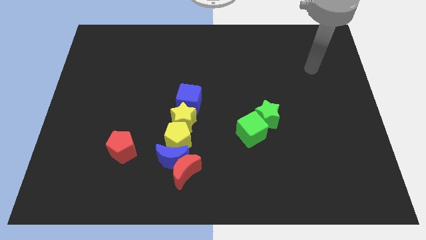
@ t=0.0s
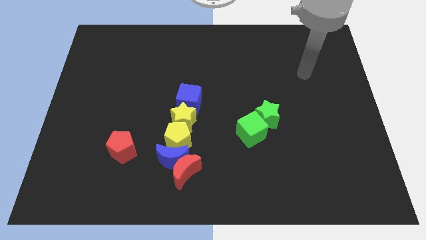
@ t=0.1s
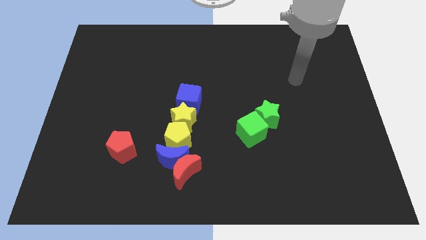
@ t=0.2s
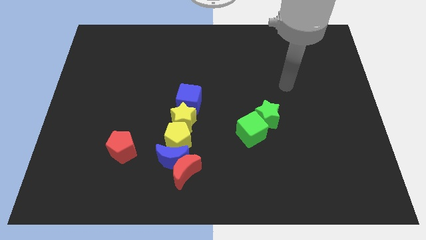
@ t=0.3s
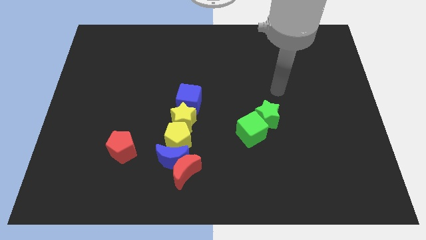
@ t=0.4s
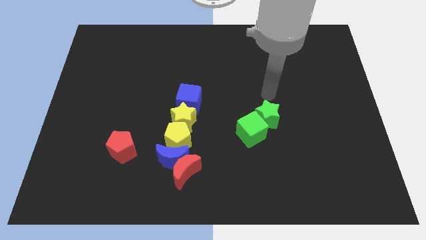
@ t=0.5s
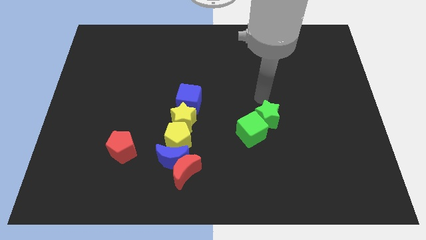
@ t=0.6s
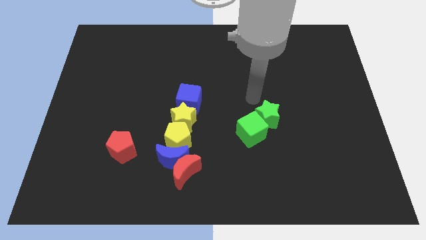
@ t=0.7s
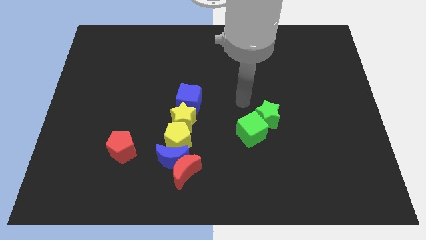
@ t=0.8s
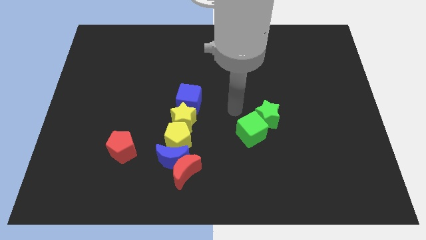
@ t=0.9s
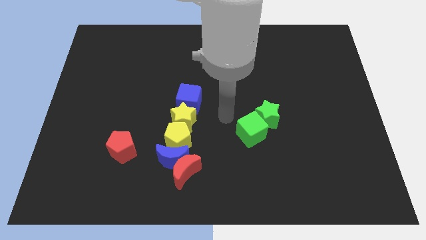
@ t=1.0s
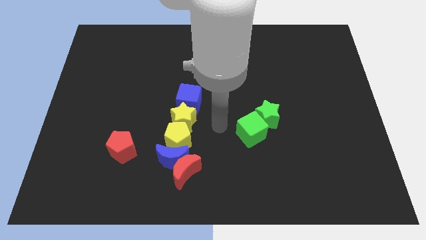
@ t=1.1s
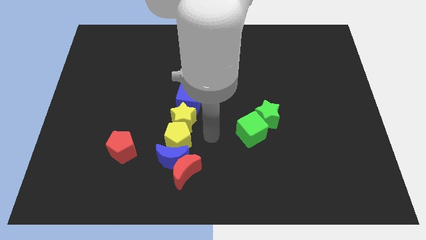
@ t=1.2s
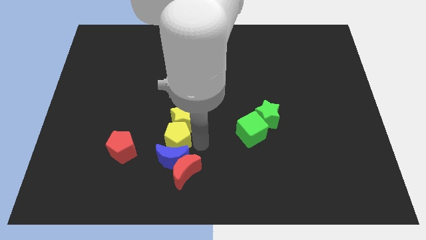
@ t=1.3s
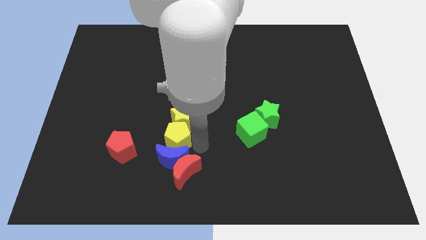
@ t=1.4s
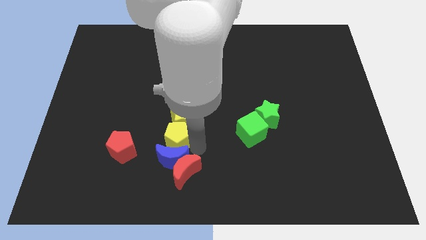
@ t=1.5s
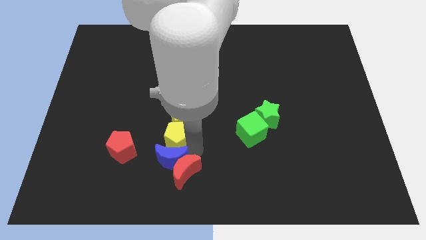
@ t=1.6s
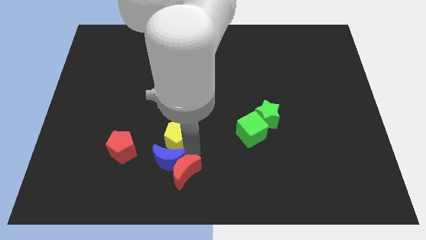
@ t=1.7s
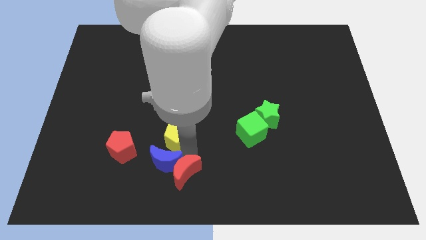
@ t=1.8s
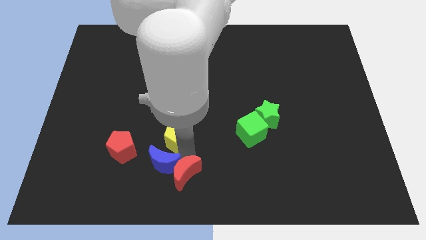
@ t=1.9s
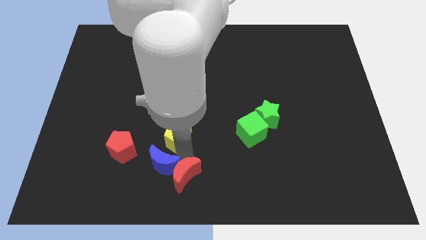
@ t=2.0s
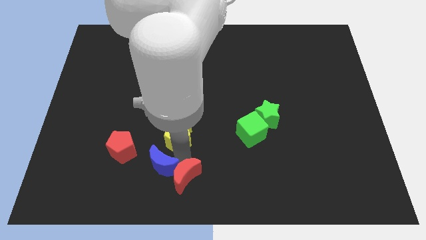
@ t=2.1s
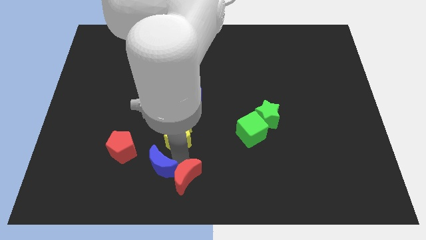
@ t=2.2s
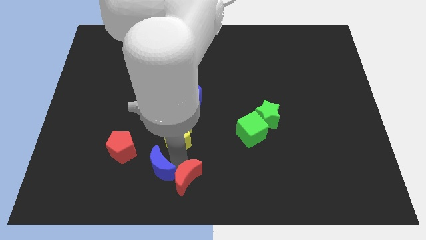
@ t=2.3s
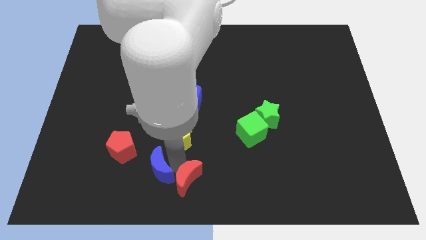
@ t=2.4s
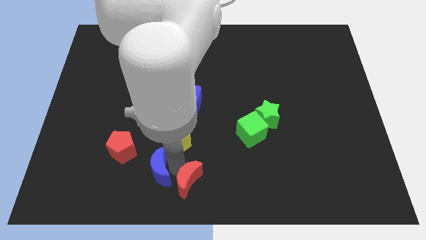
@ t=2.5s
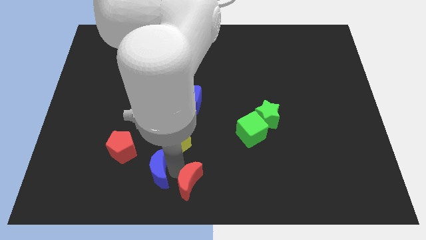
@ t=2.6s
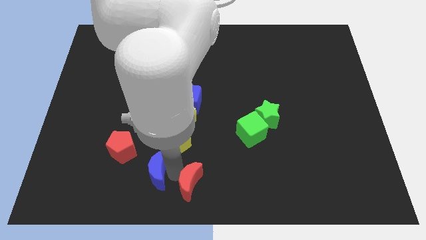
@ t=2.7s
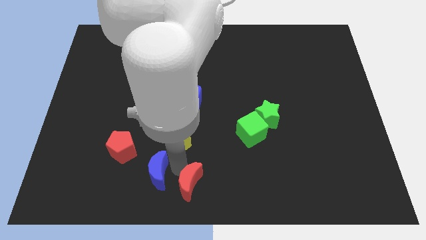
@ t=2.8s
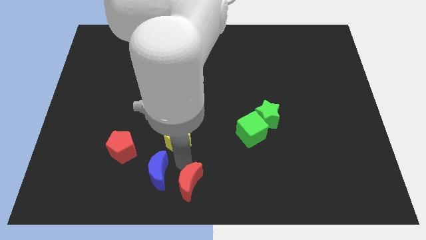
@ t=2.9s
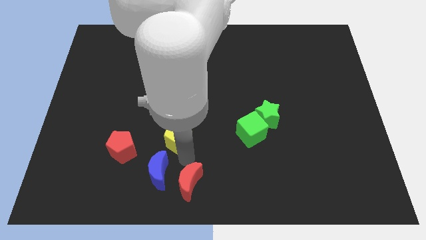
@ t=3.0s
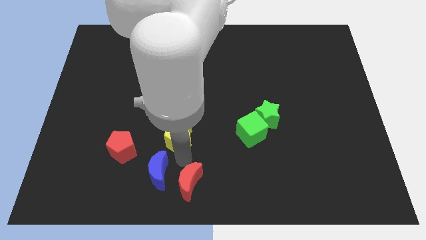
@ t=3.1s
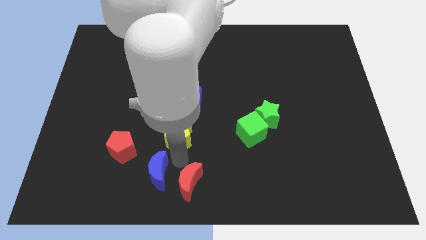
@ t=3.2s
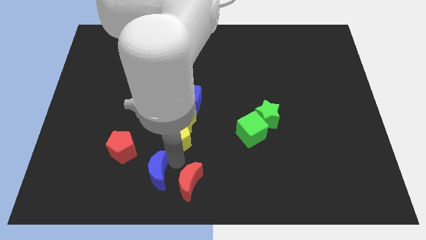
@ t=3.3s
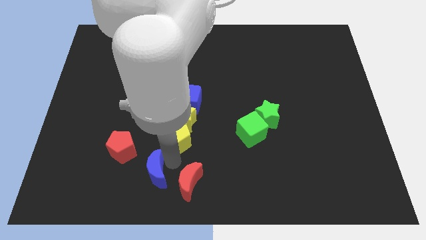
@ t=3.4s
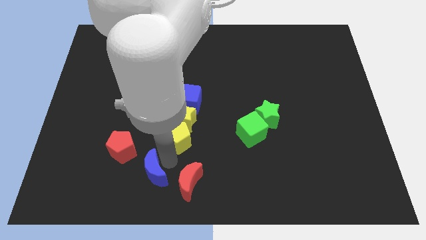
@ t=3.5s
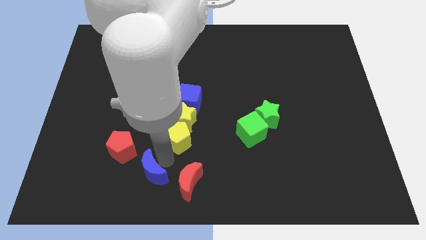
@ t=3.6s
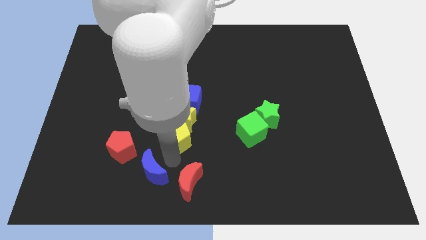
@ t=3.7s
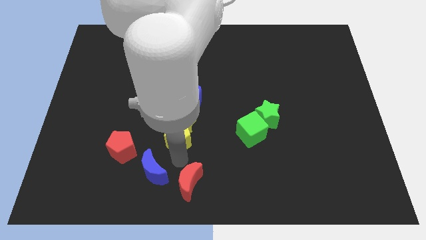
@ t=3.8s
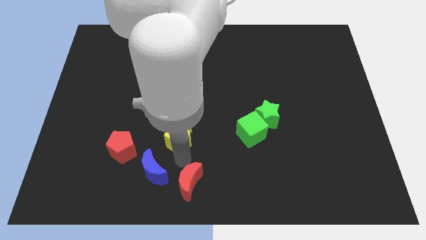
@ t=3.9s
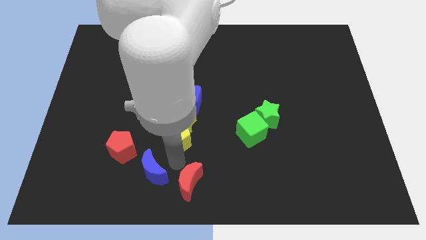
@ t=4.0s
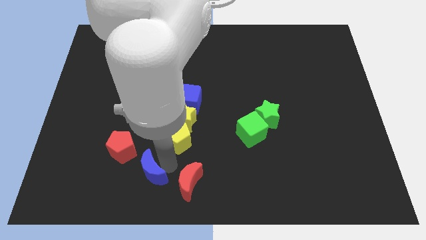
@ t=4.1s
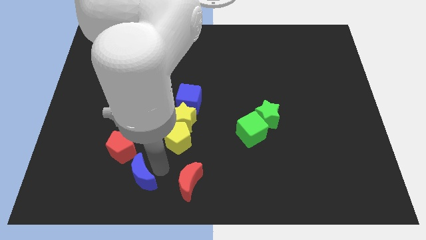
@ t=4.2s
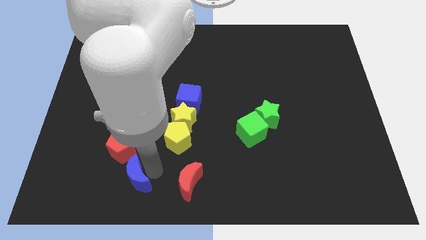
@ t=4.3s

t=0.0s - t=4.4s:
separate the blue moon from the red moon and yellow pentagon

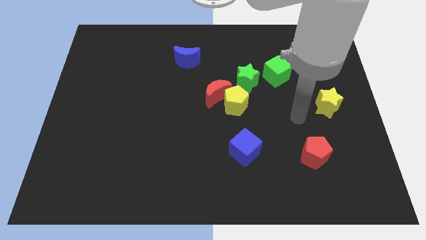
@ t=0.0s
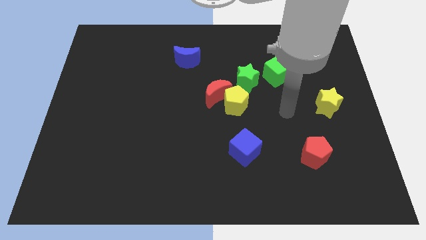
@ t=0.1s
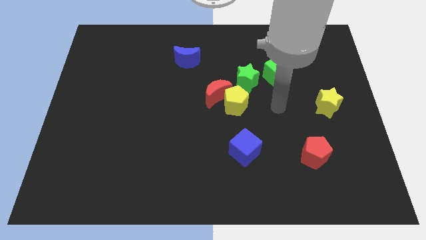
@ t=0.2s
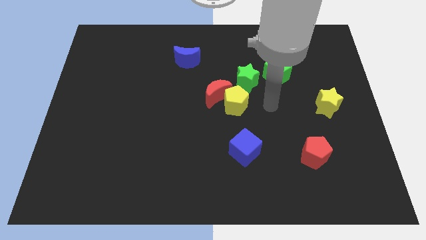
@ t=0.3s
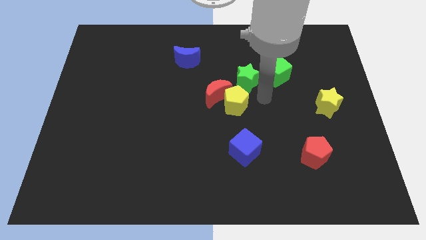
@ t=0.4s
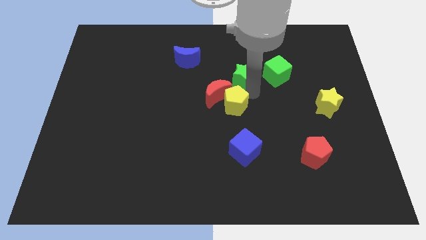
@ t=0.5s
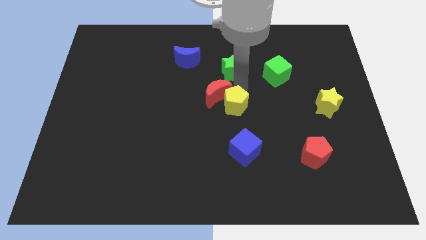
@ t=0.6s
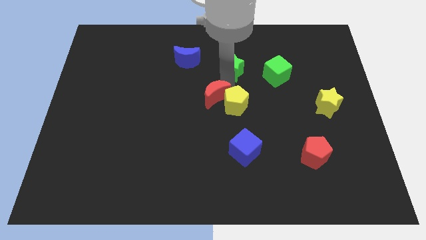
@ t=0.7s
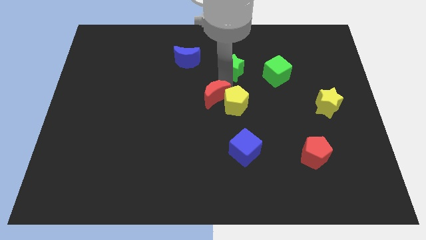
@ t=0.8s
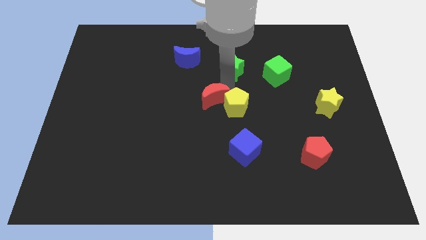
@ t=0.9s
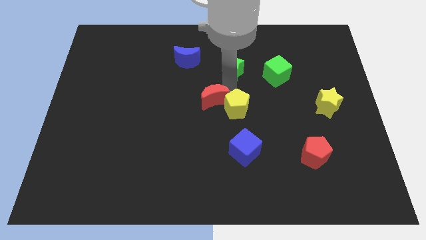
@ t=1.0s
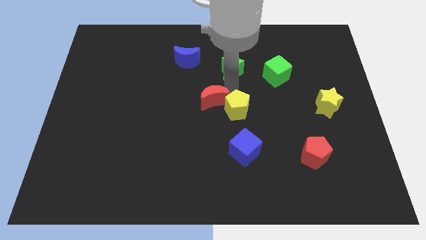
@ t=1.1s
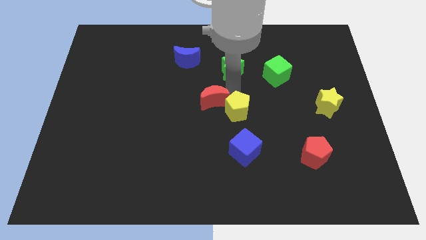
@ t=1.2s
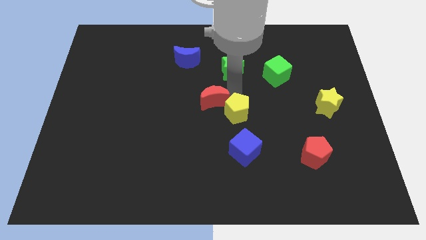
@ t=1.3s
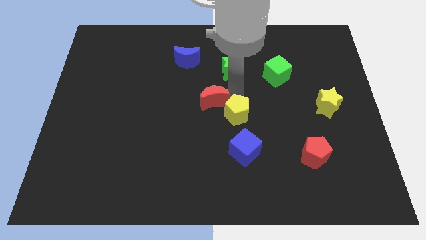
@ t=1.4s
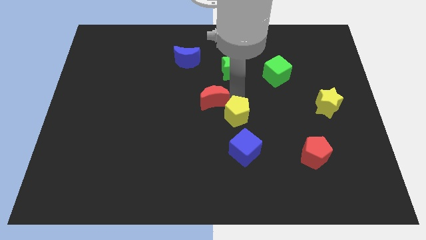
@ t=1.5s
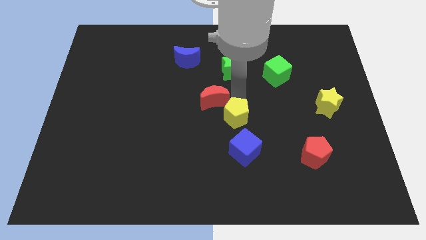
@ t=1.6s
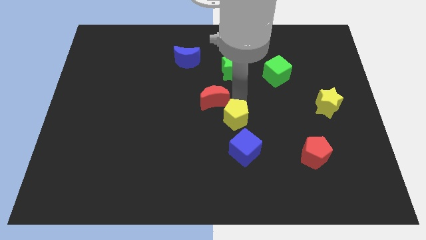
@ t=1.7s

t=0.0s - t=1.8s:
move the yellow pentagon away from the red moon and green star

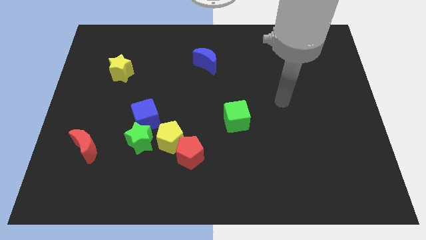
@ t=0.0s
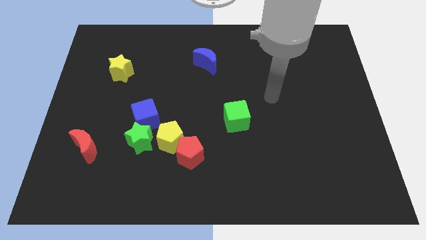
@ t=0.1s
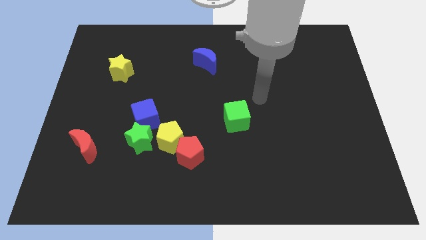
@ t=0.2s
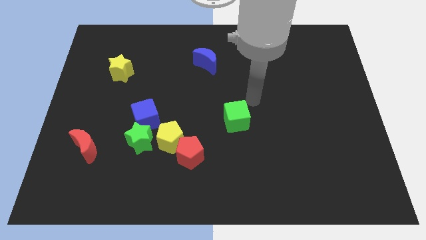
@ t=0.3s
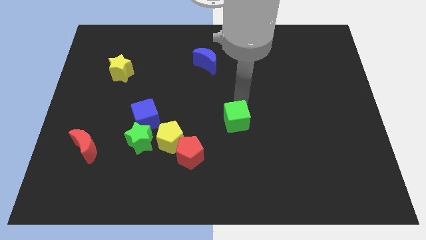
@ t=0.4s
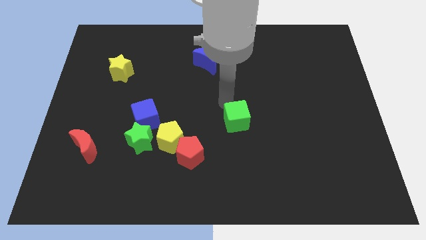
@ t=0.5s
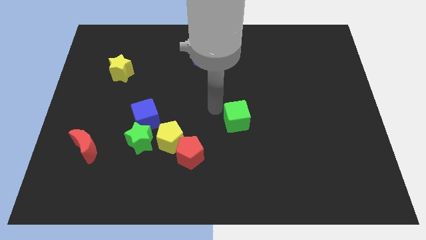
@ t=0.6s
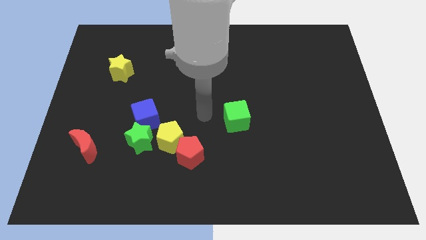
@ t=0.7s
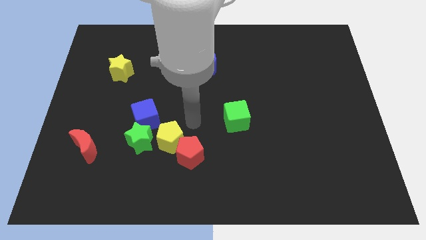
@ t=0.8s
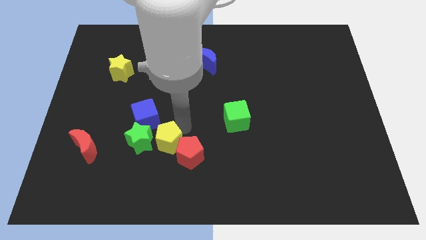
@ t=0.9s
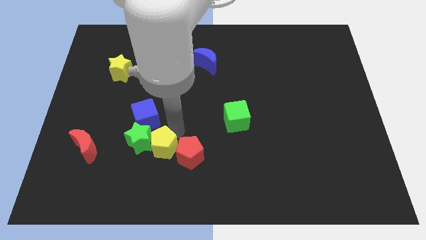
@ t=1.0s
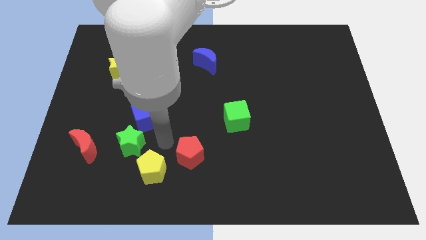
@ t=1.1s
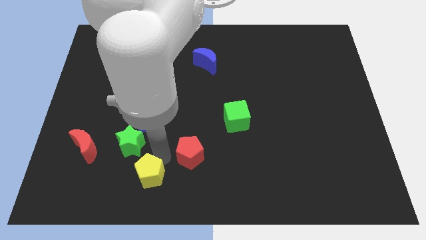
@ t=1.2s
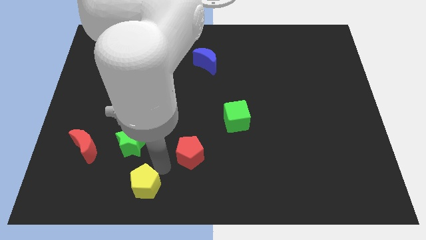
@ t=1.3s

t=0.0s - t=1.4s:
separate the red pentagon from the yellow pentagon

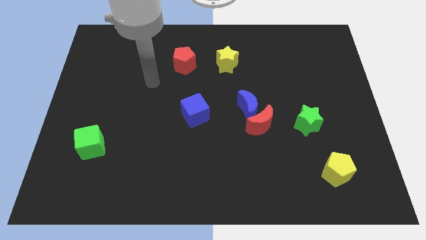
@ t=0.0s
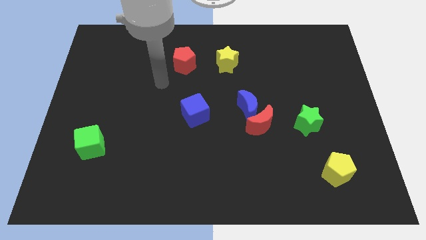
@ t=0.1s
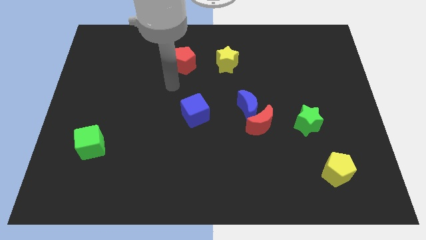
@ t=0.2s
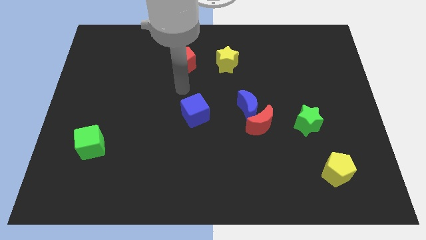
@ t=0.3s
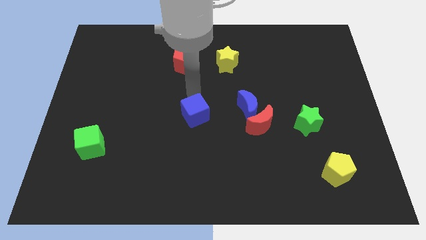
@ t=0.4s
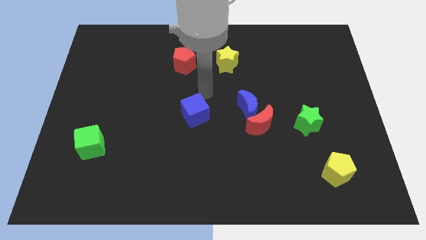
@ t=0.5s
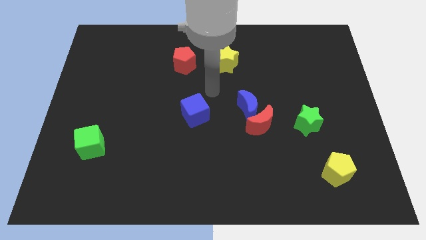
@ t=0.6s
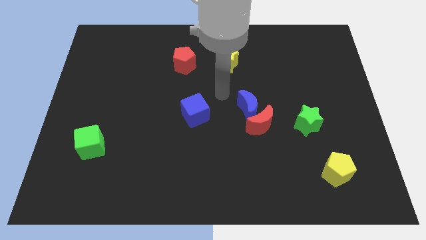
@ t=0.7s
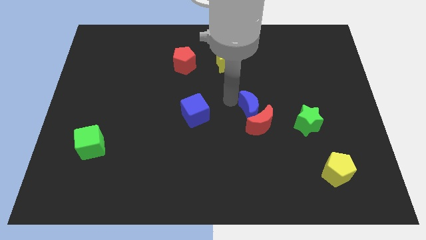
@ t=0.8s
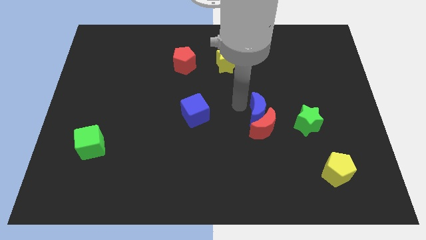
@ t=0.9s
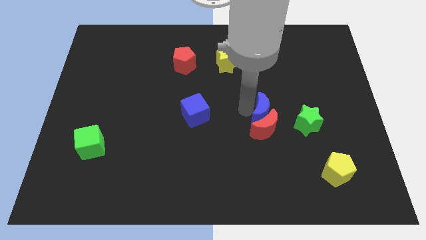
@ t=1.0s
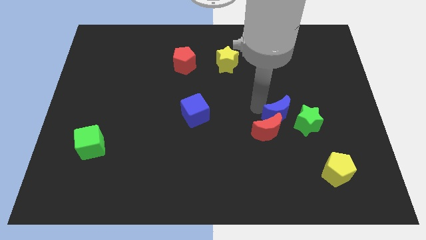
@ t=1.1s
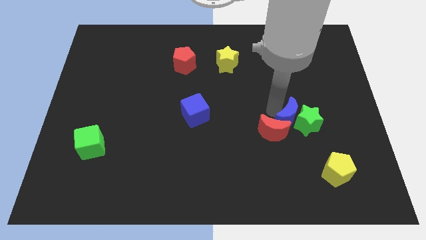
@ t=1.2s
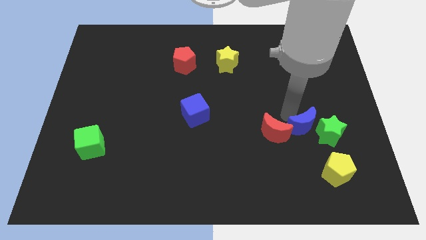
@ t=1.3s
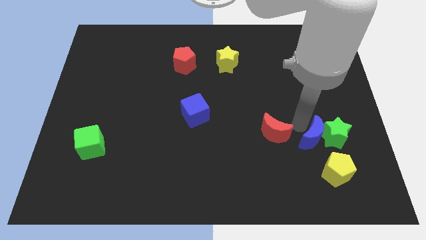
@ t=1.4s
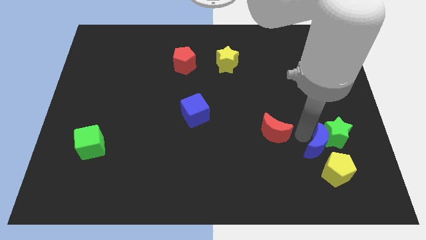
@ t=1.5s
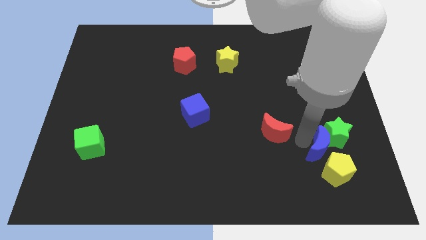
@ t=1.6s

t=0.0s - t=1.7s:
pull the red moon apart from the blue moon

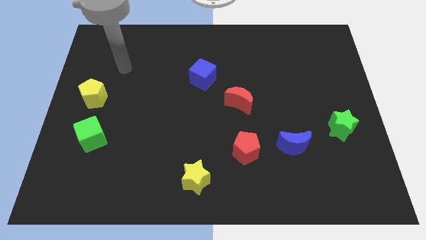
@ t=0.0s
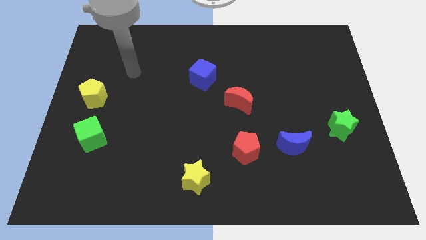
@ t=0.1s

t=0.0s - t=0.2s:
move the red pentagon away from the blue moon
